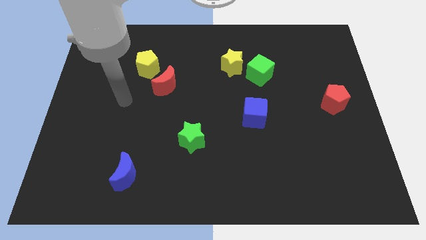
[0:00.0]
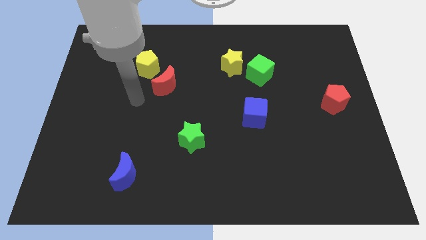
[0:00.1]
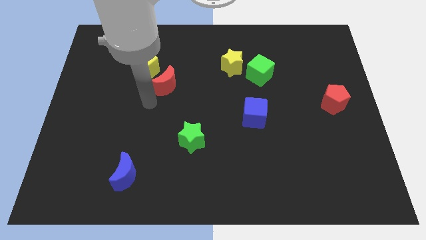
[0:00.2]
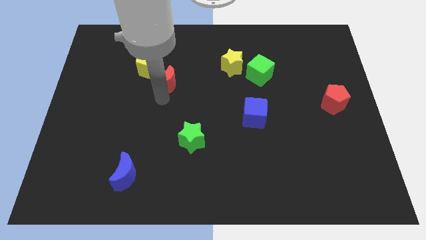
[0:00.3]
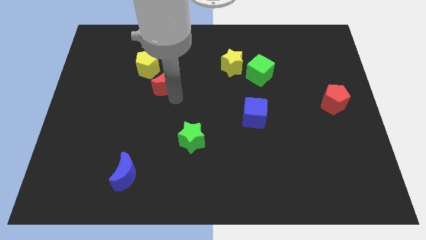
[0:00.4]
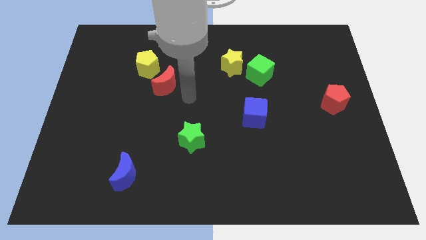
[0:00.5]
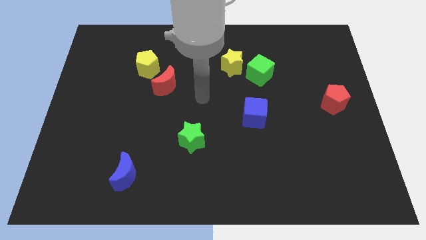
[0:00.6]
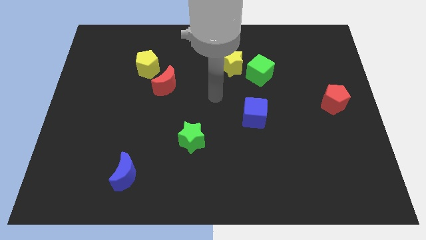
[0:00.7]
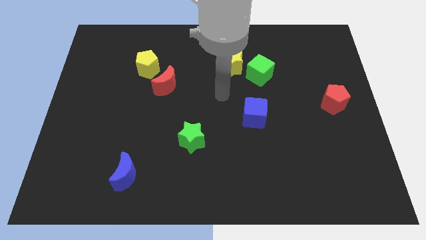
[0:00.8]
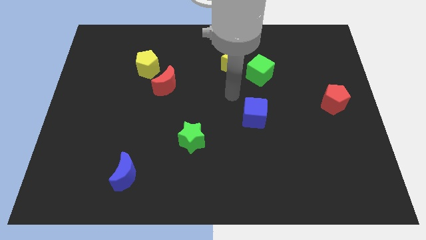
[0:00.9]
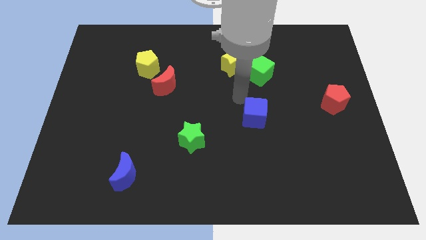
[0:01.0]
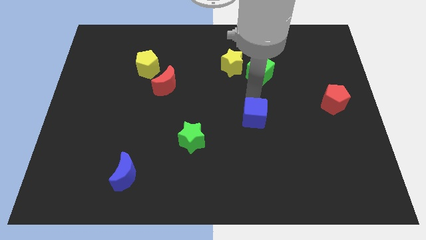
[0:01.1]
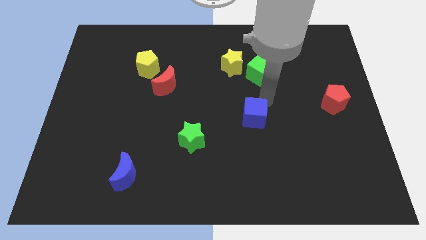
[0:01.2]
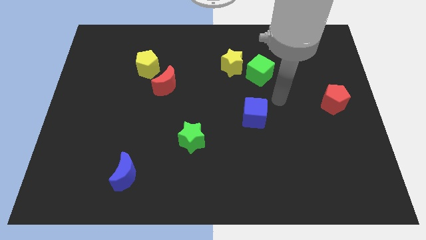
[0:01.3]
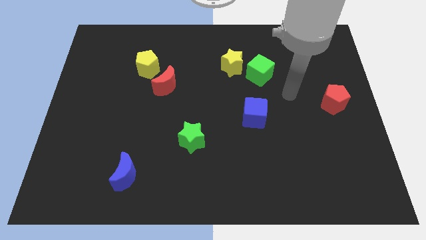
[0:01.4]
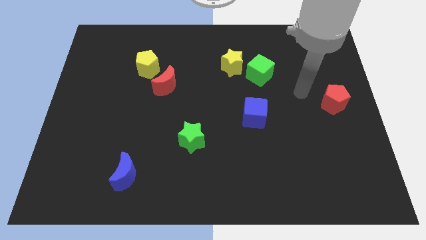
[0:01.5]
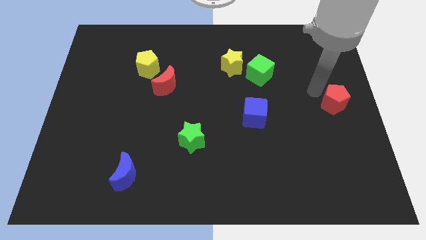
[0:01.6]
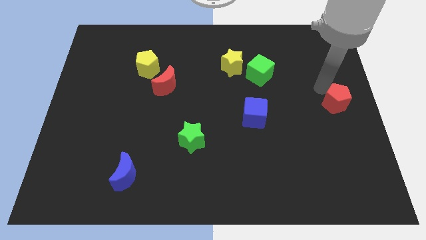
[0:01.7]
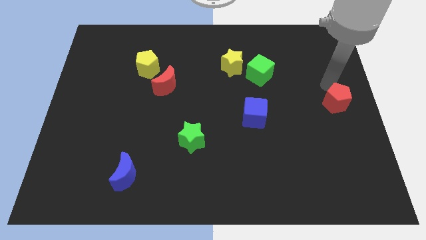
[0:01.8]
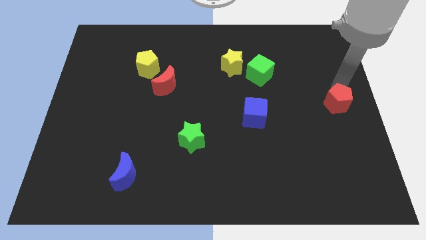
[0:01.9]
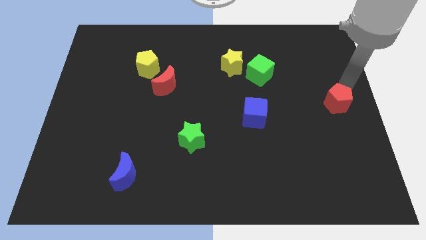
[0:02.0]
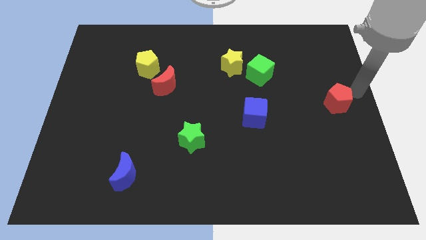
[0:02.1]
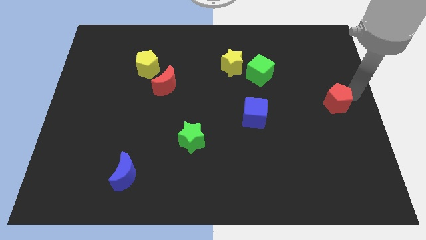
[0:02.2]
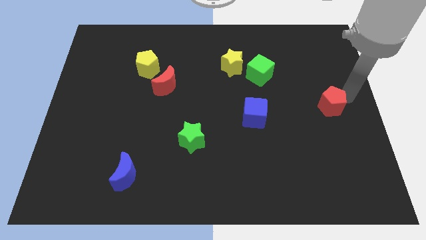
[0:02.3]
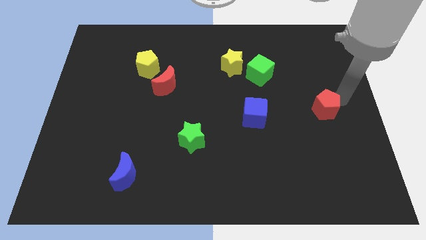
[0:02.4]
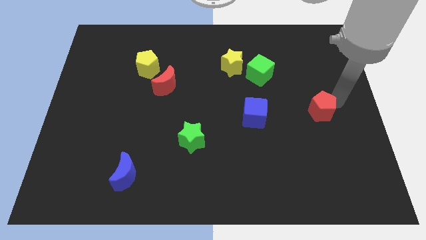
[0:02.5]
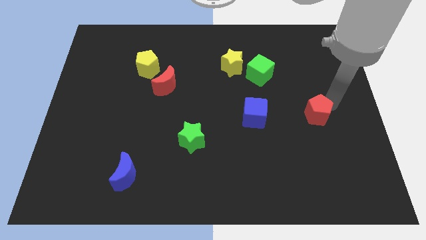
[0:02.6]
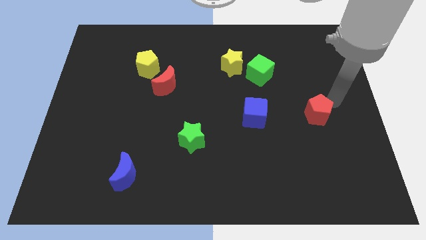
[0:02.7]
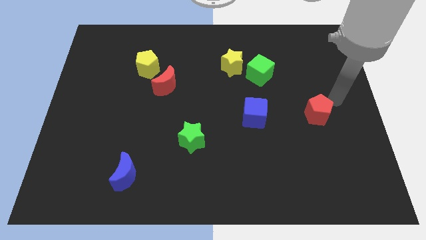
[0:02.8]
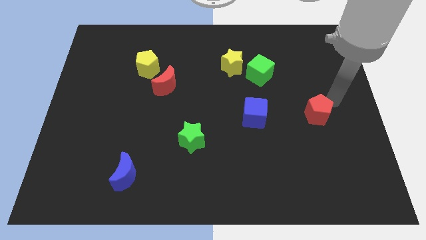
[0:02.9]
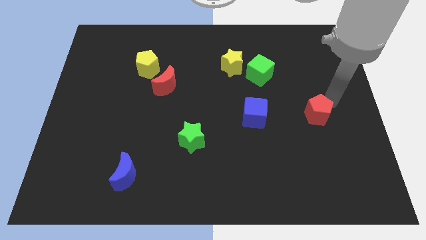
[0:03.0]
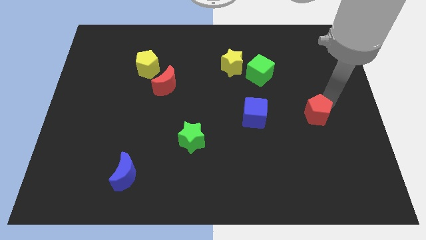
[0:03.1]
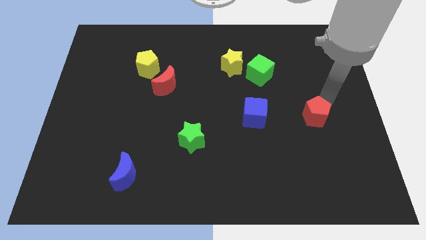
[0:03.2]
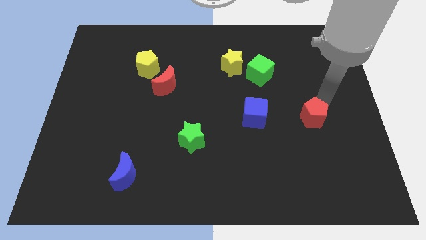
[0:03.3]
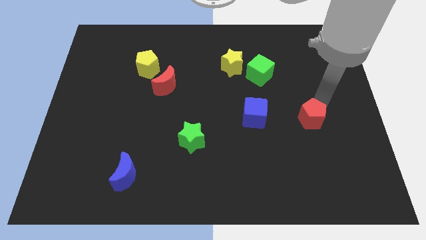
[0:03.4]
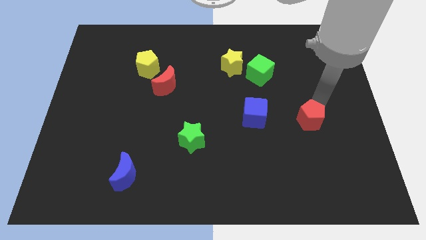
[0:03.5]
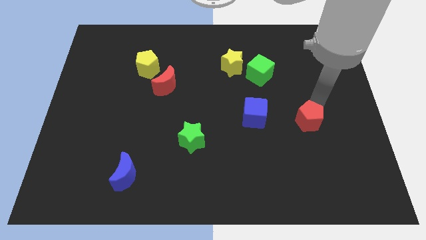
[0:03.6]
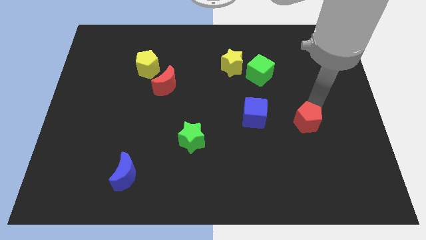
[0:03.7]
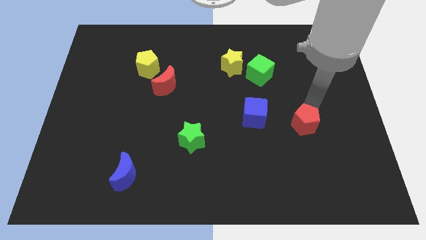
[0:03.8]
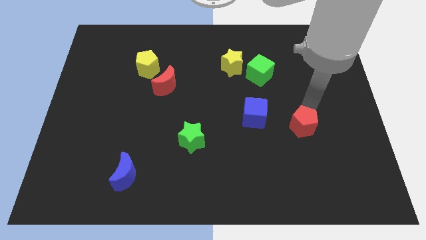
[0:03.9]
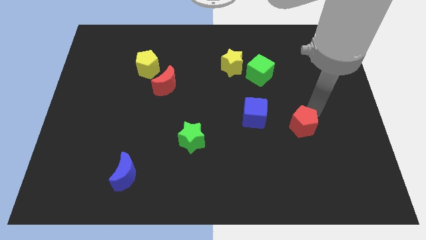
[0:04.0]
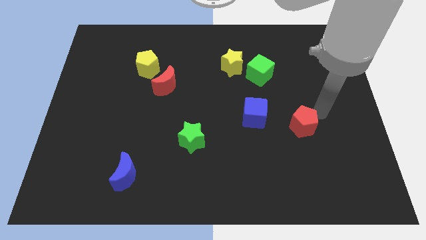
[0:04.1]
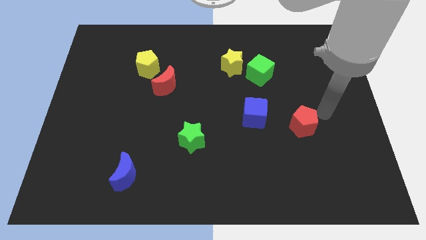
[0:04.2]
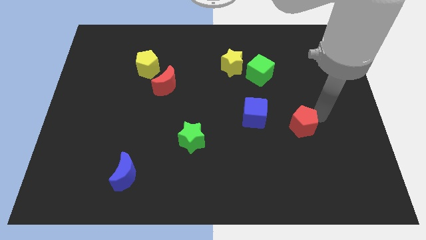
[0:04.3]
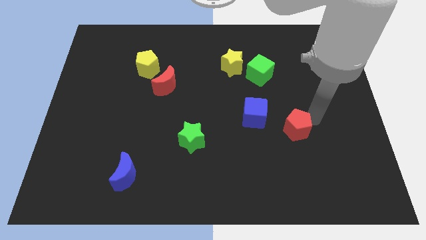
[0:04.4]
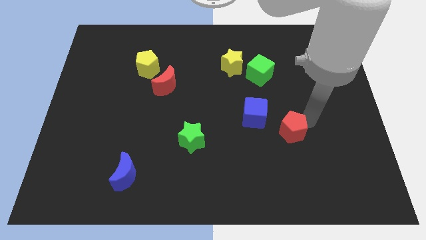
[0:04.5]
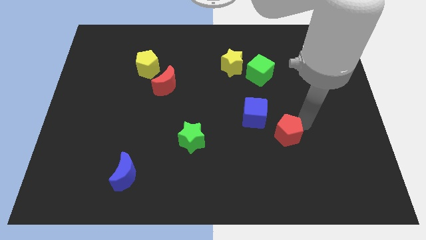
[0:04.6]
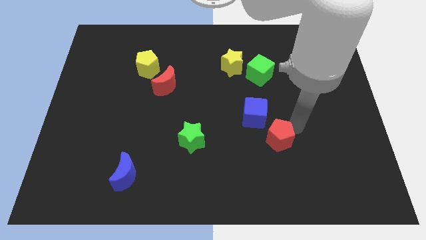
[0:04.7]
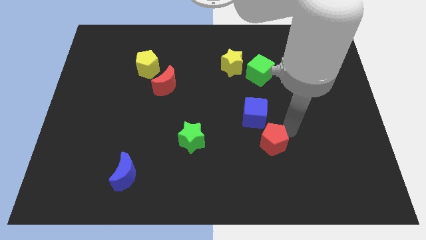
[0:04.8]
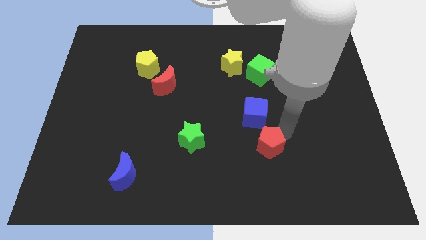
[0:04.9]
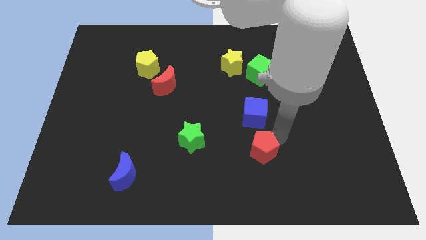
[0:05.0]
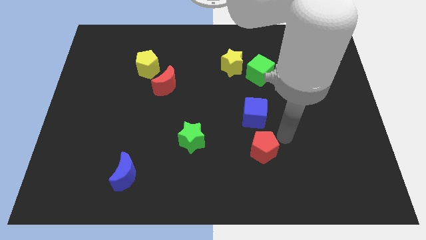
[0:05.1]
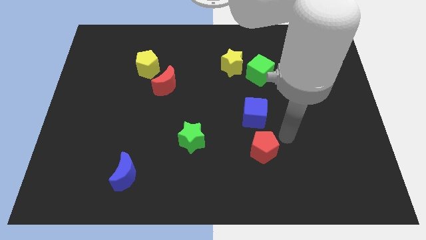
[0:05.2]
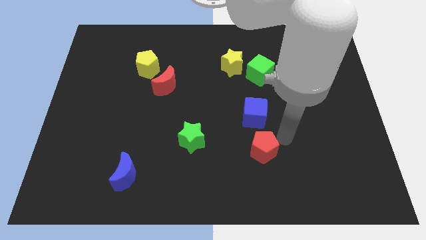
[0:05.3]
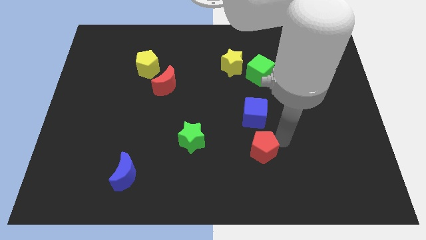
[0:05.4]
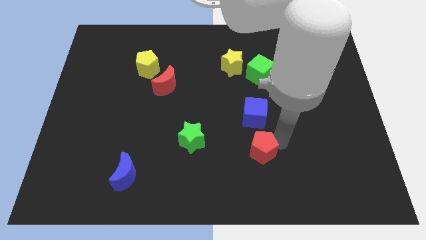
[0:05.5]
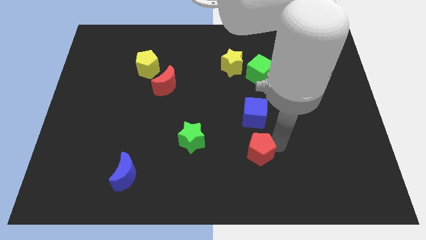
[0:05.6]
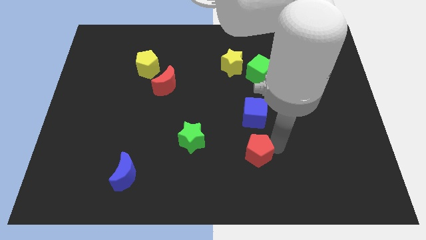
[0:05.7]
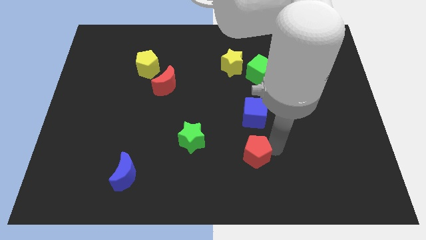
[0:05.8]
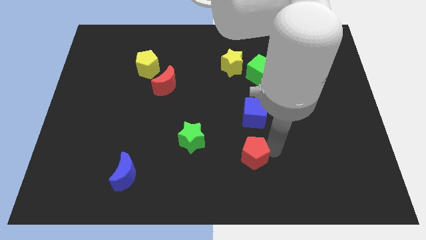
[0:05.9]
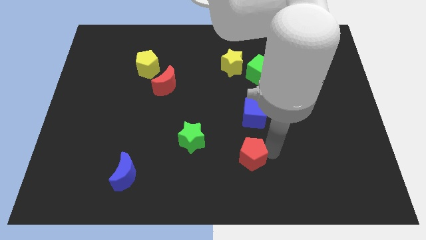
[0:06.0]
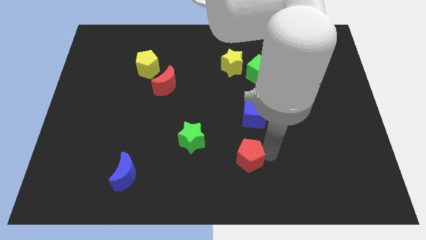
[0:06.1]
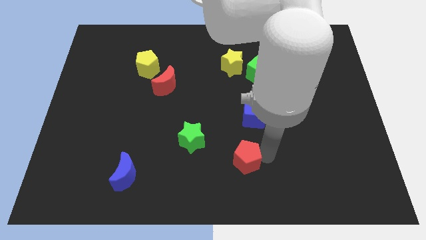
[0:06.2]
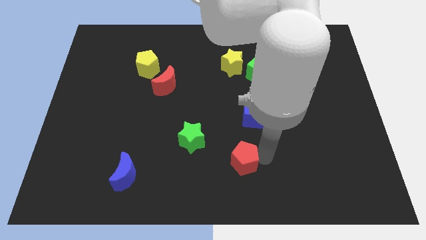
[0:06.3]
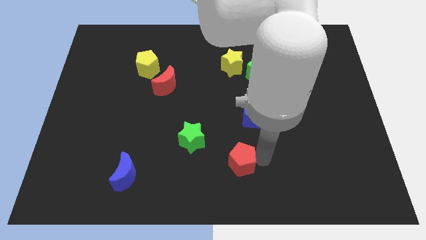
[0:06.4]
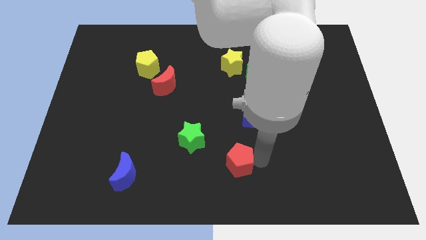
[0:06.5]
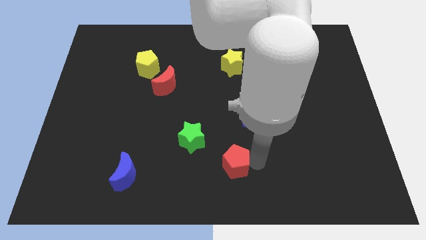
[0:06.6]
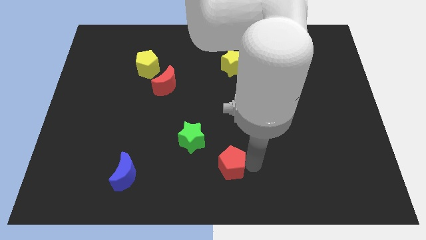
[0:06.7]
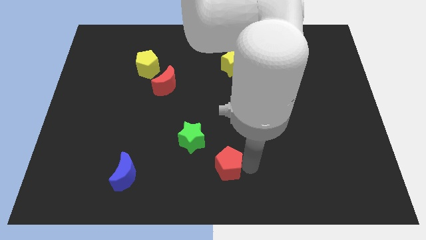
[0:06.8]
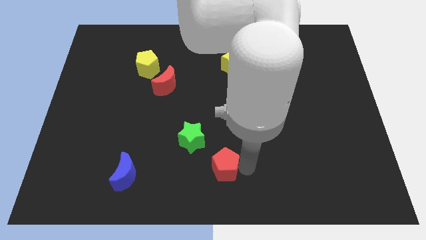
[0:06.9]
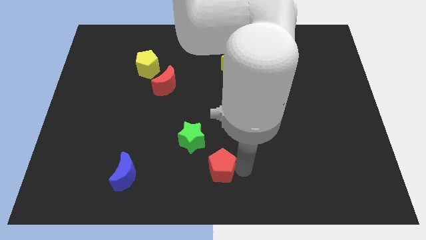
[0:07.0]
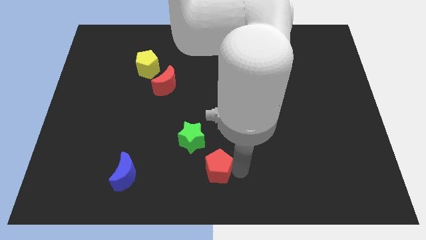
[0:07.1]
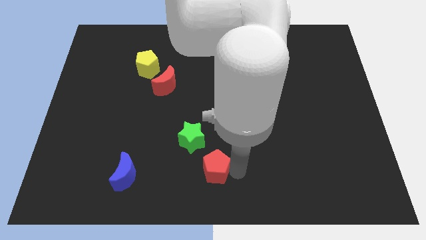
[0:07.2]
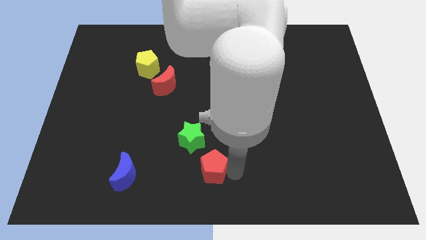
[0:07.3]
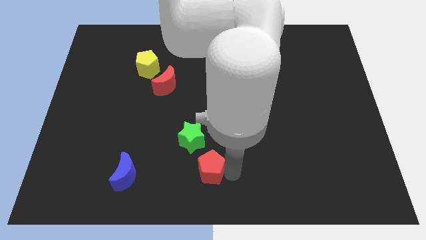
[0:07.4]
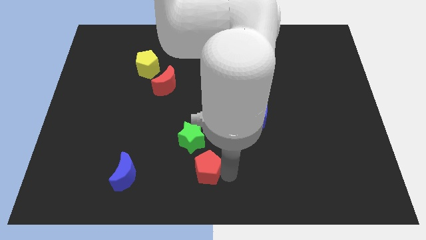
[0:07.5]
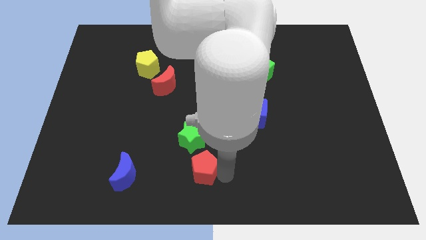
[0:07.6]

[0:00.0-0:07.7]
move the red pentagon just right of the blue moon

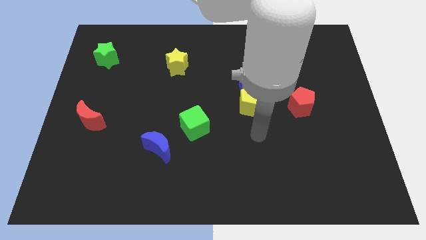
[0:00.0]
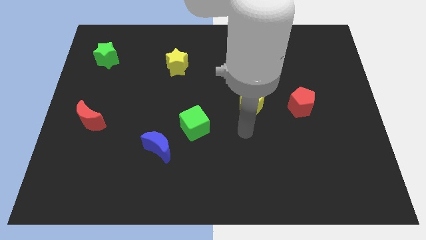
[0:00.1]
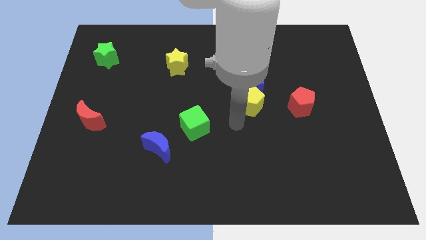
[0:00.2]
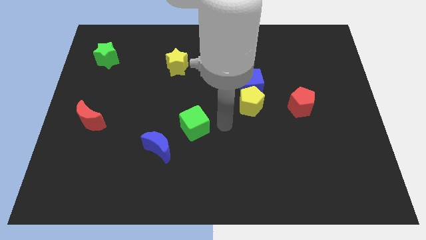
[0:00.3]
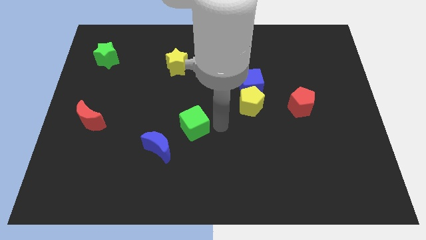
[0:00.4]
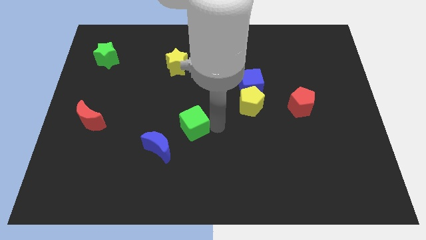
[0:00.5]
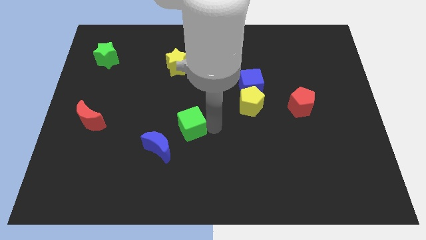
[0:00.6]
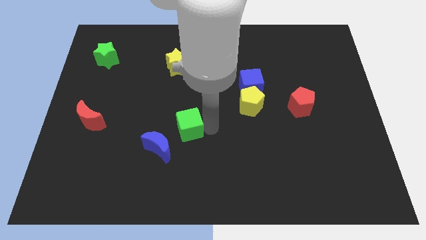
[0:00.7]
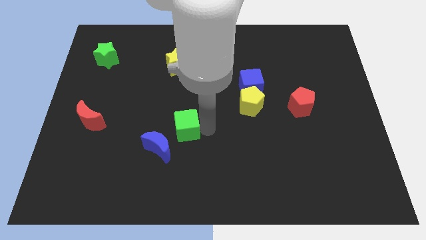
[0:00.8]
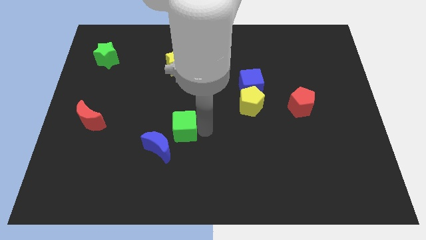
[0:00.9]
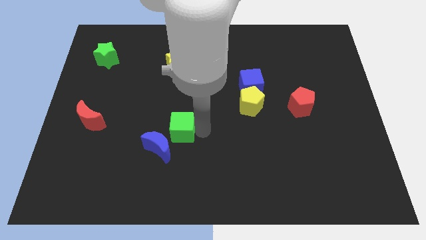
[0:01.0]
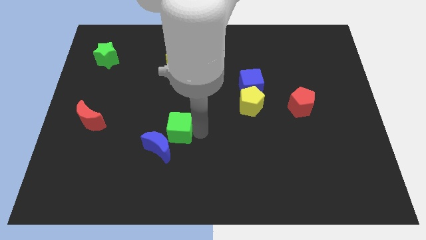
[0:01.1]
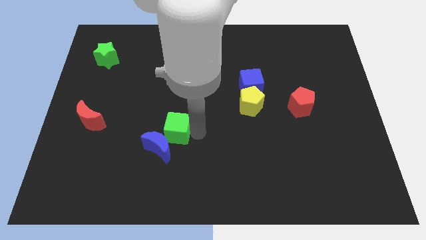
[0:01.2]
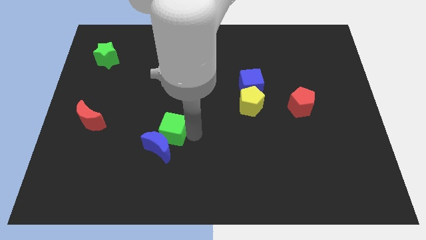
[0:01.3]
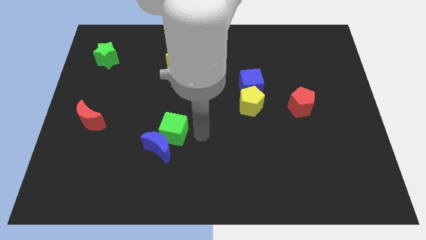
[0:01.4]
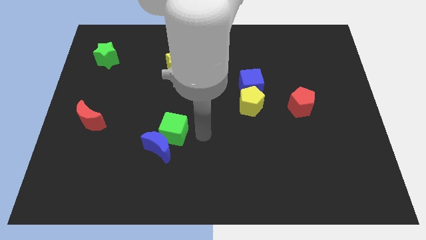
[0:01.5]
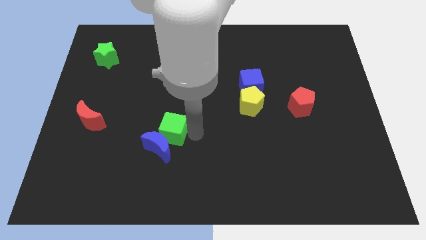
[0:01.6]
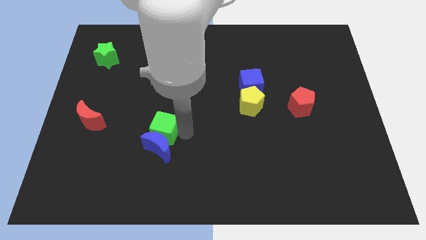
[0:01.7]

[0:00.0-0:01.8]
slide the green cube to the top left side of the blue moon
